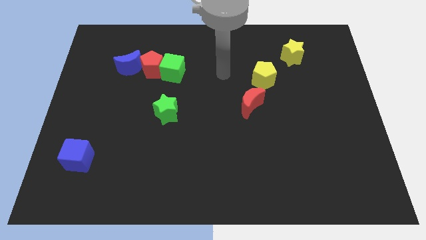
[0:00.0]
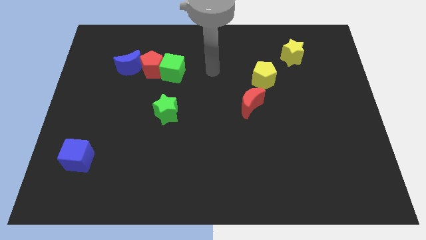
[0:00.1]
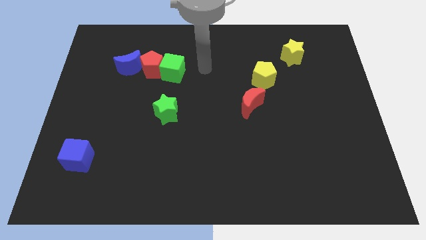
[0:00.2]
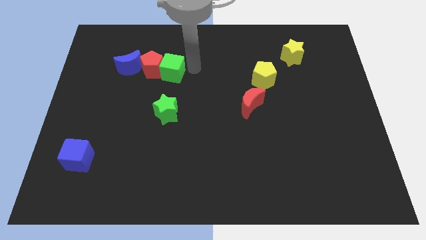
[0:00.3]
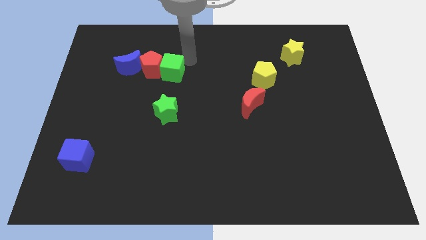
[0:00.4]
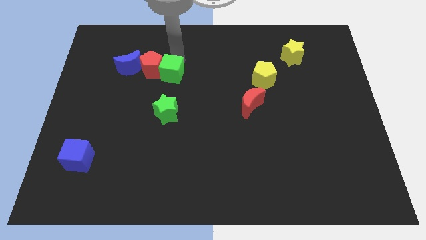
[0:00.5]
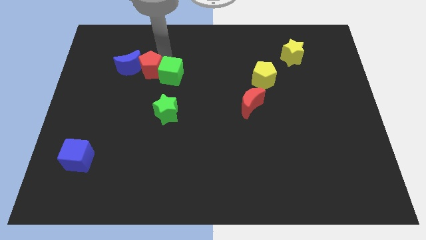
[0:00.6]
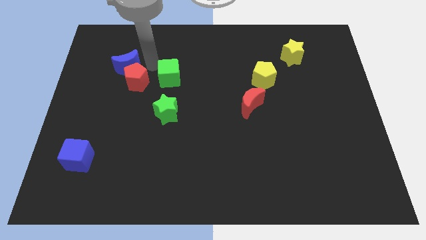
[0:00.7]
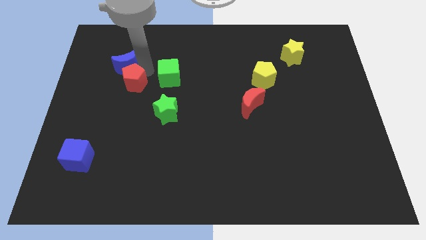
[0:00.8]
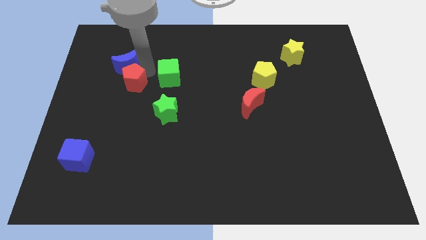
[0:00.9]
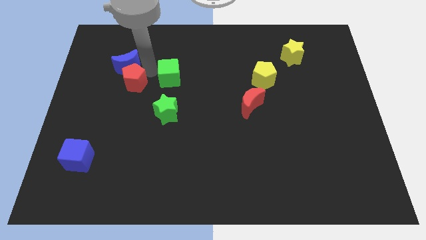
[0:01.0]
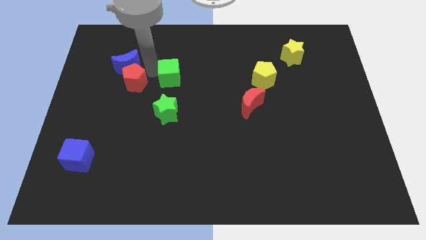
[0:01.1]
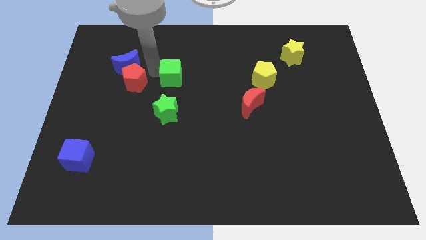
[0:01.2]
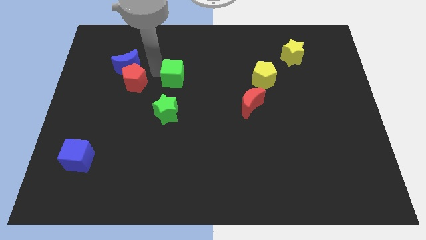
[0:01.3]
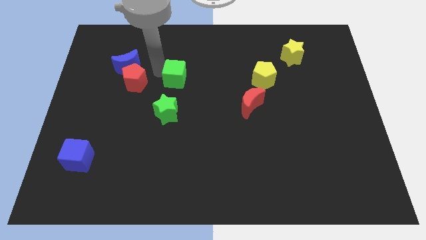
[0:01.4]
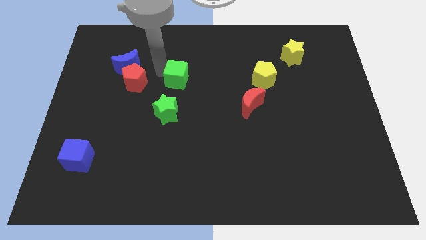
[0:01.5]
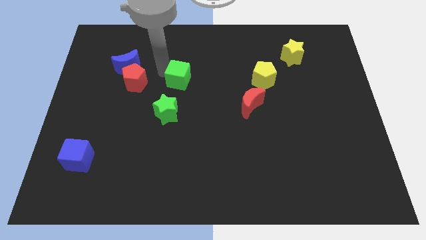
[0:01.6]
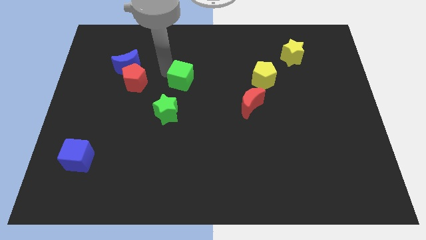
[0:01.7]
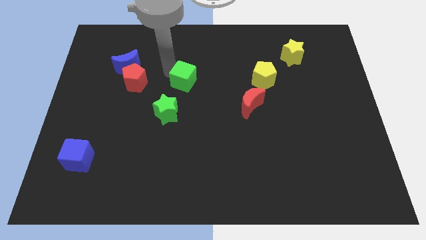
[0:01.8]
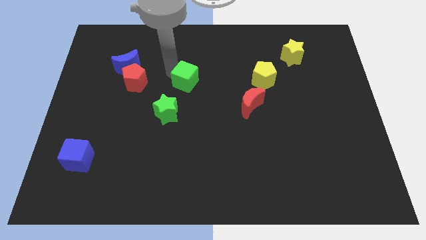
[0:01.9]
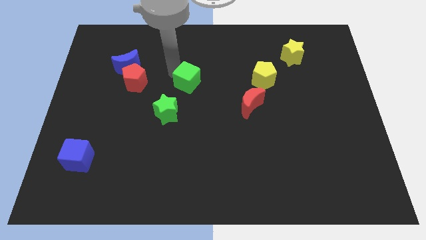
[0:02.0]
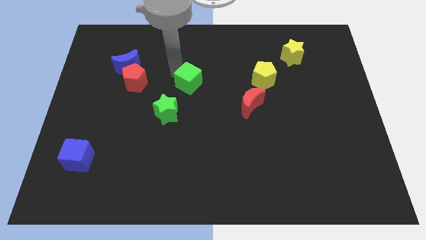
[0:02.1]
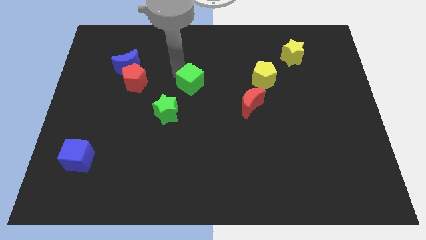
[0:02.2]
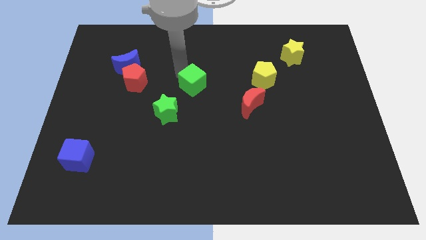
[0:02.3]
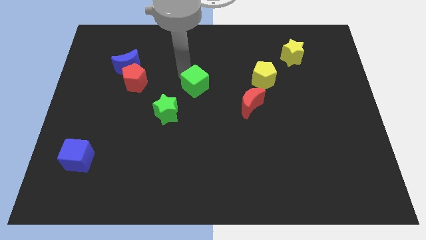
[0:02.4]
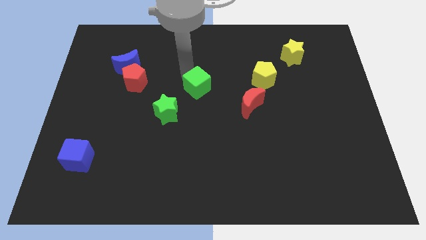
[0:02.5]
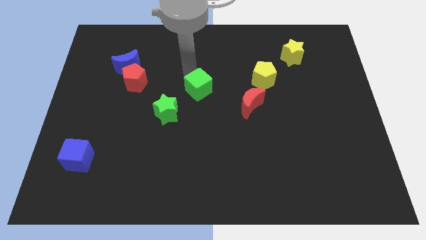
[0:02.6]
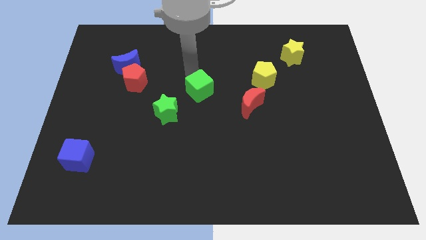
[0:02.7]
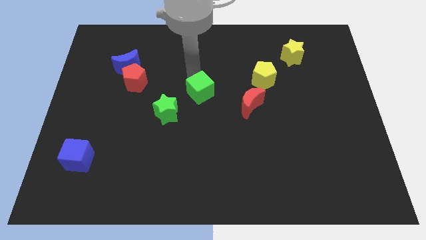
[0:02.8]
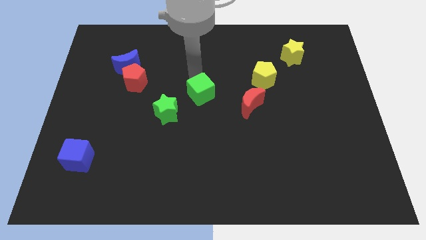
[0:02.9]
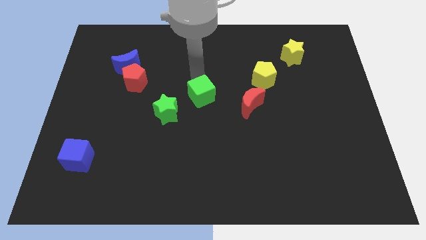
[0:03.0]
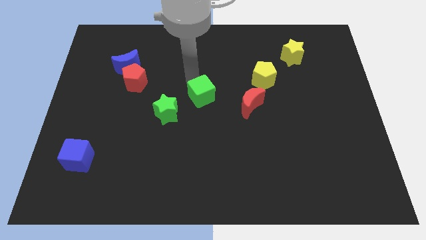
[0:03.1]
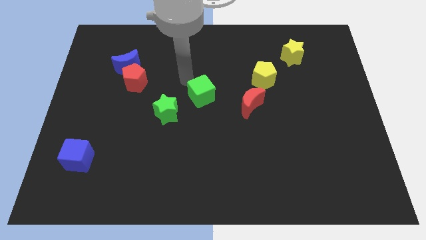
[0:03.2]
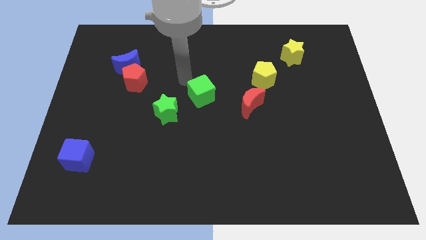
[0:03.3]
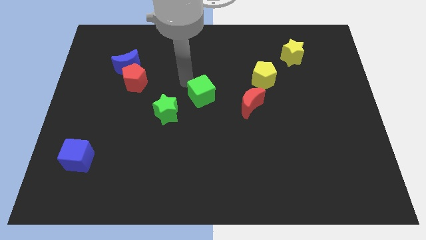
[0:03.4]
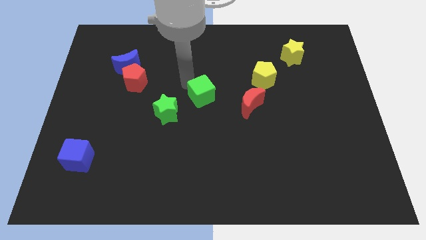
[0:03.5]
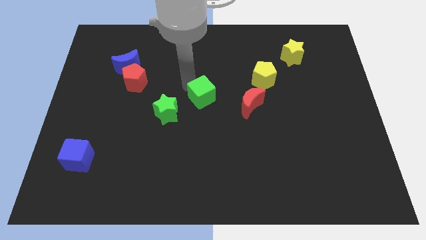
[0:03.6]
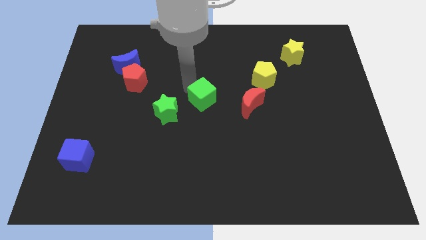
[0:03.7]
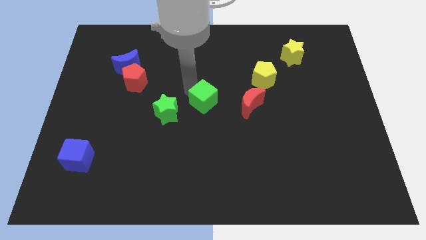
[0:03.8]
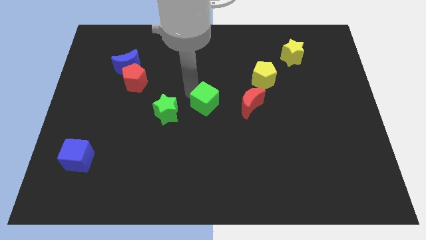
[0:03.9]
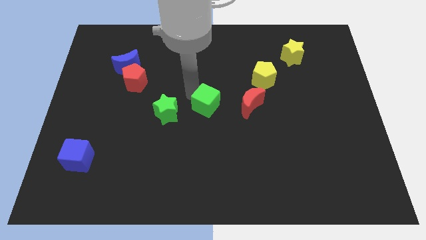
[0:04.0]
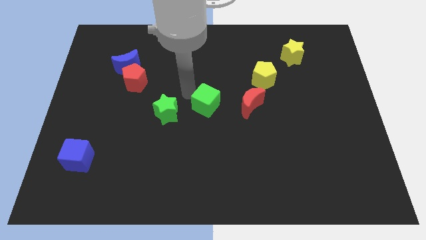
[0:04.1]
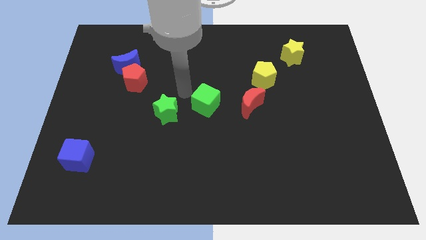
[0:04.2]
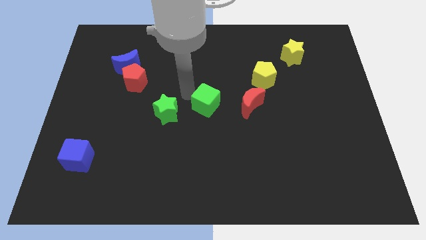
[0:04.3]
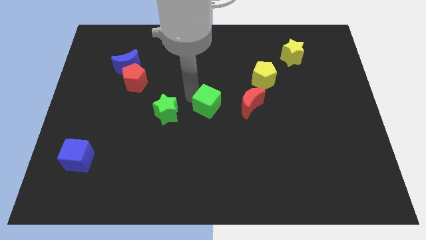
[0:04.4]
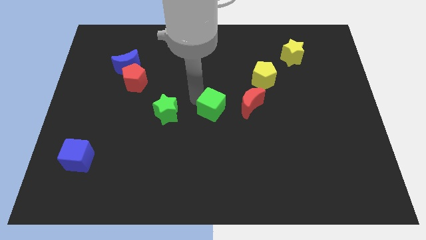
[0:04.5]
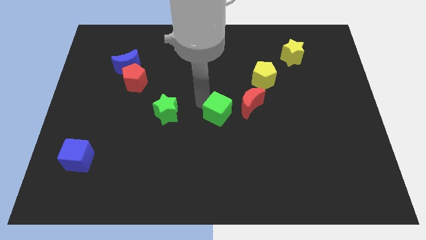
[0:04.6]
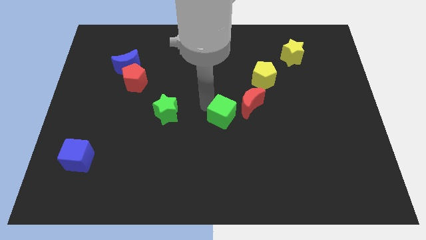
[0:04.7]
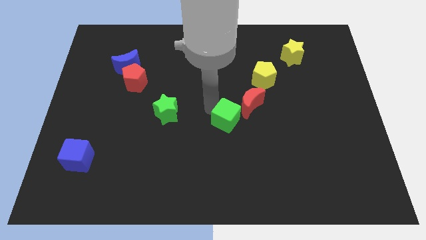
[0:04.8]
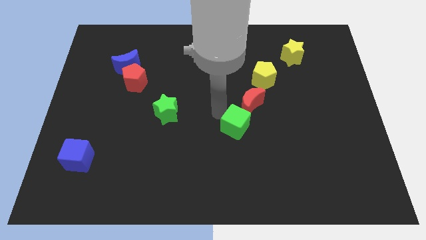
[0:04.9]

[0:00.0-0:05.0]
push the green cube to the bottom side of the red moon

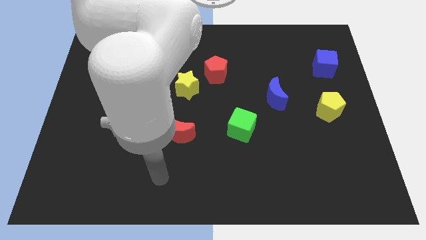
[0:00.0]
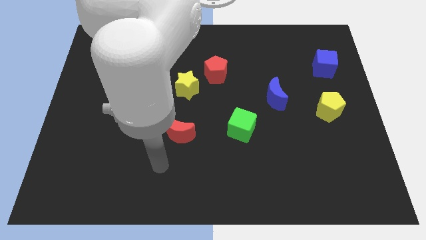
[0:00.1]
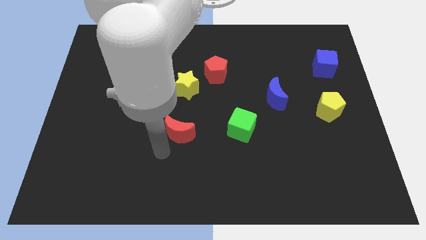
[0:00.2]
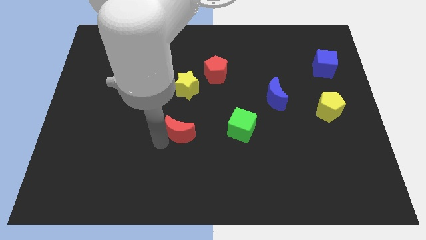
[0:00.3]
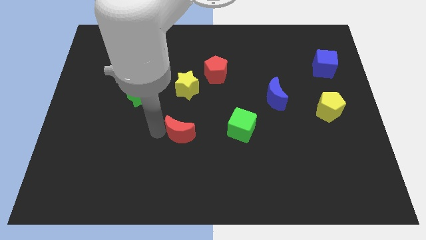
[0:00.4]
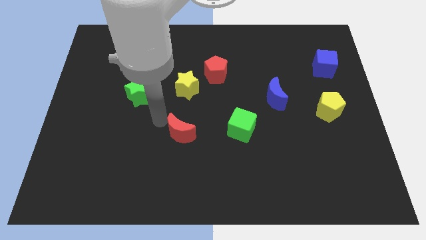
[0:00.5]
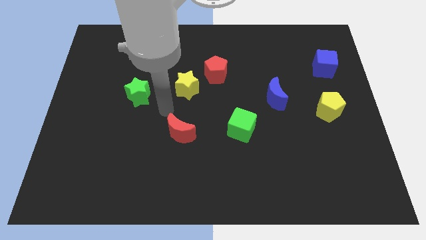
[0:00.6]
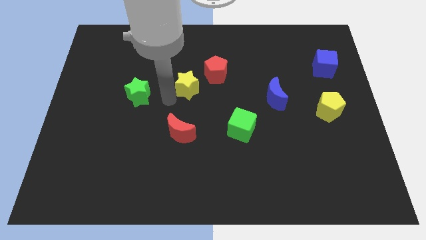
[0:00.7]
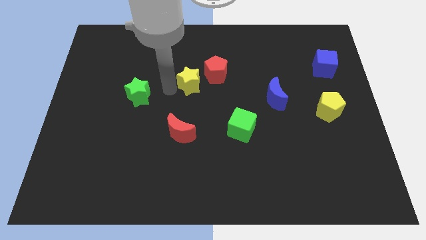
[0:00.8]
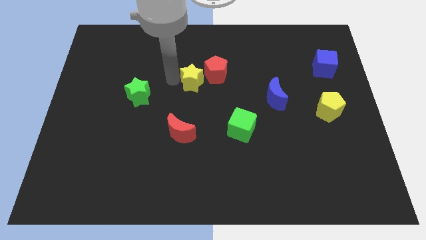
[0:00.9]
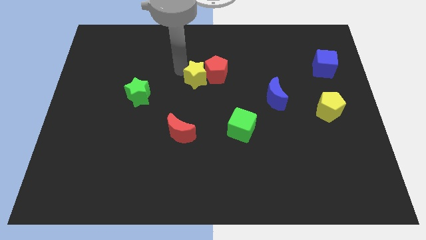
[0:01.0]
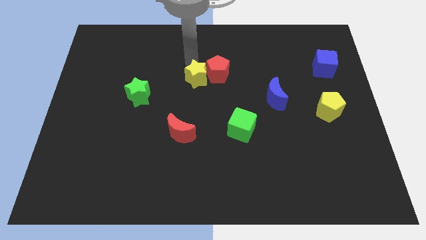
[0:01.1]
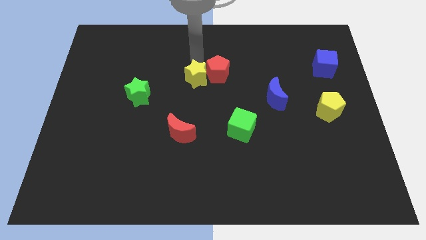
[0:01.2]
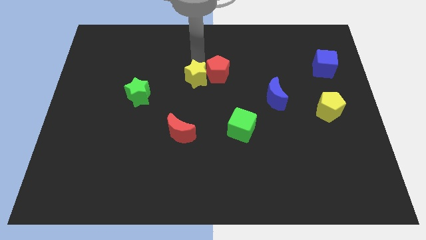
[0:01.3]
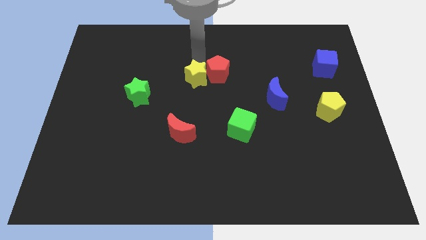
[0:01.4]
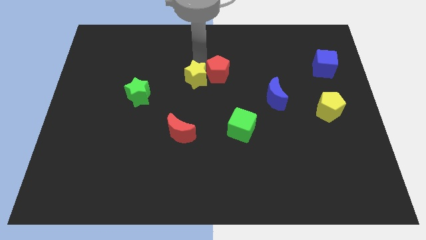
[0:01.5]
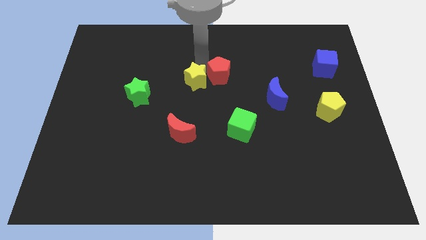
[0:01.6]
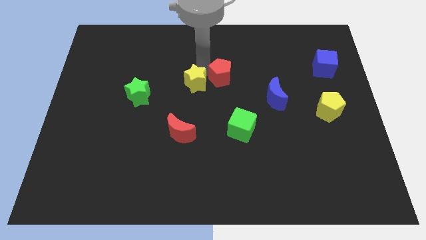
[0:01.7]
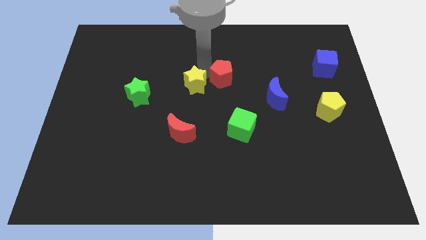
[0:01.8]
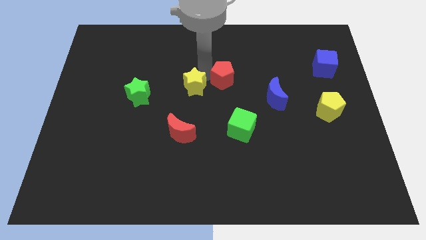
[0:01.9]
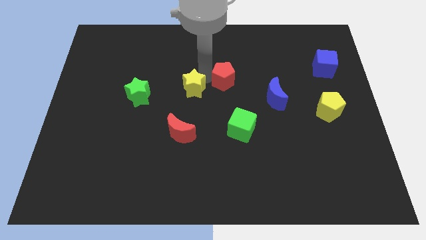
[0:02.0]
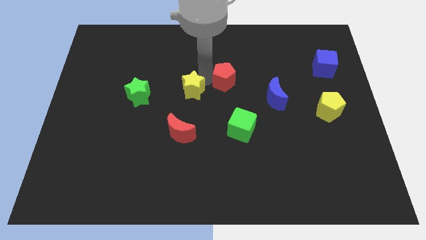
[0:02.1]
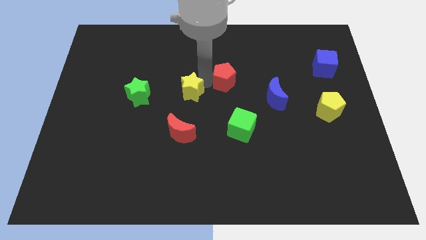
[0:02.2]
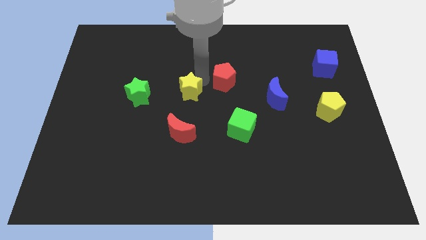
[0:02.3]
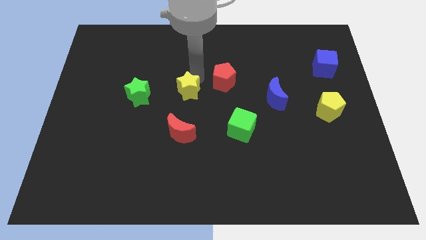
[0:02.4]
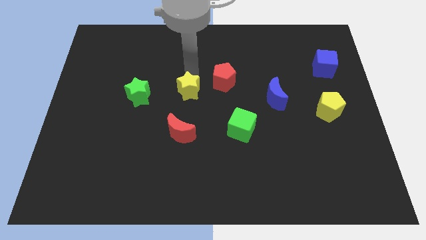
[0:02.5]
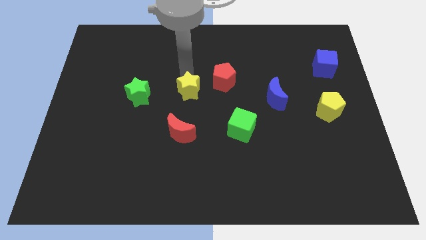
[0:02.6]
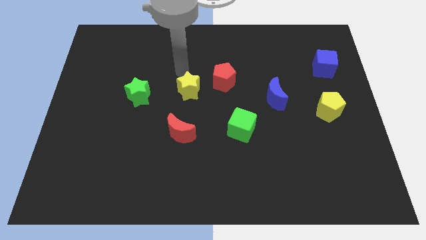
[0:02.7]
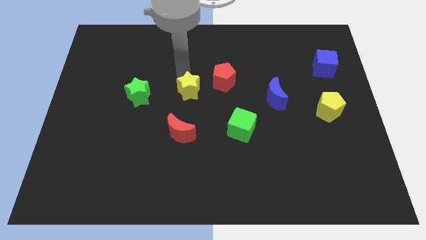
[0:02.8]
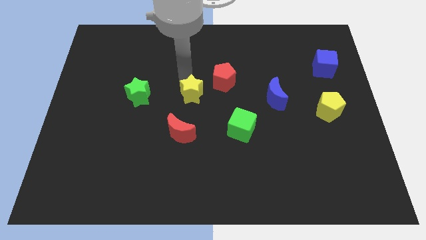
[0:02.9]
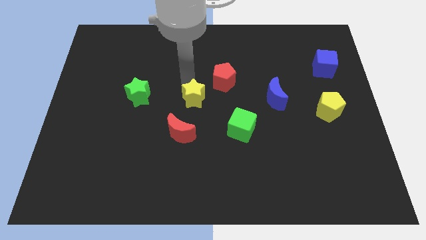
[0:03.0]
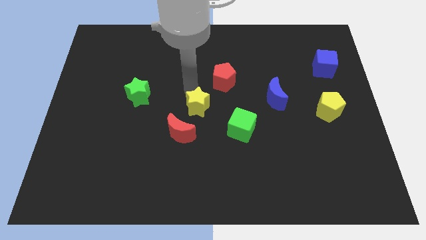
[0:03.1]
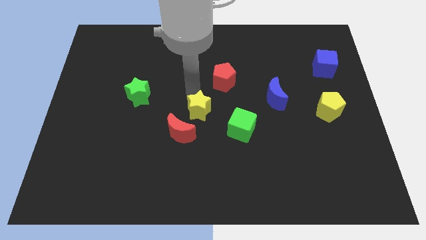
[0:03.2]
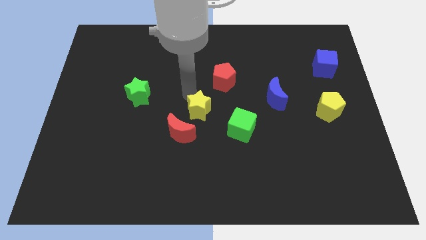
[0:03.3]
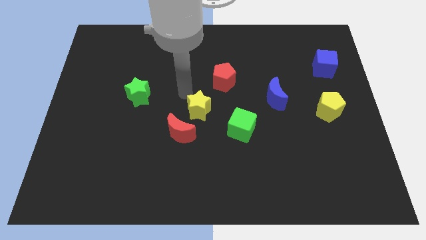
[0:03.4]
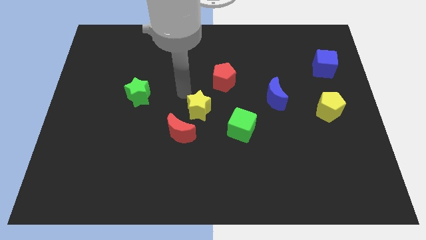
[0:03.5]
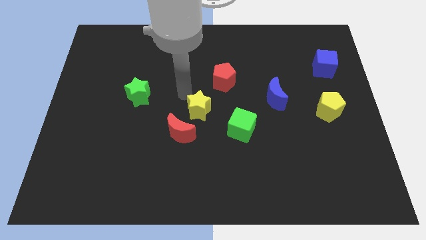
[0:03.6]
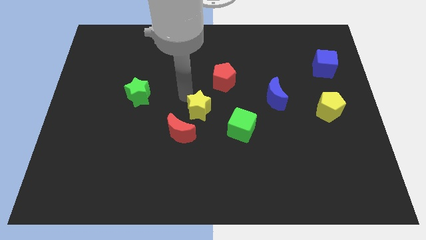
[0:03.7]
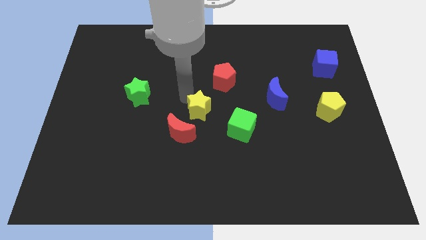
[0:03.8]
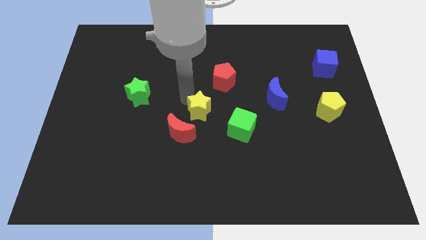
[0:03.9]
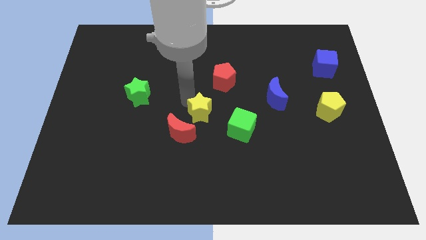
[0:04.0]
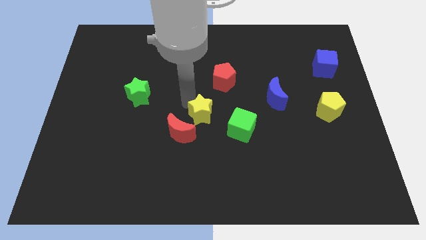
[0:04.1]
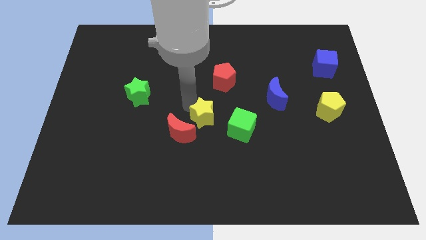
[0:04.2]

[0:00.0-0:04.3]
put the yellow star just right of the red moon
